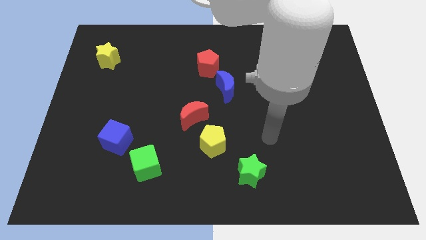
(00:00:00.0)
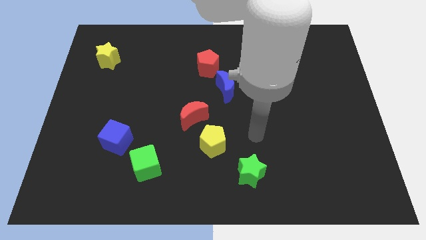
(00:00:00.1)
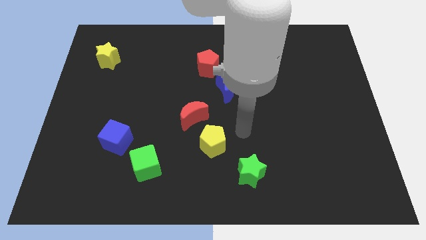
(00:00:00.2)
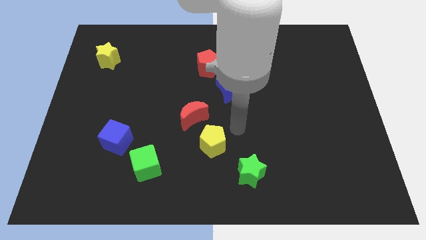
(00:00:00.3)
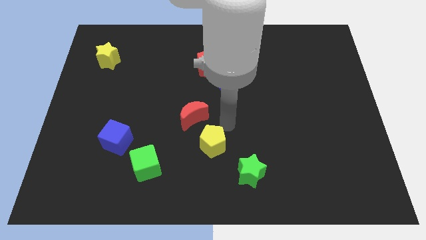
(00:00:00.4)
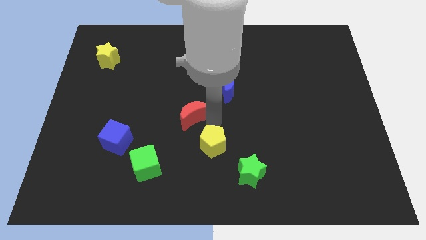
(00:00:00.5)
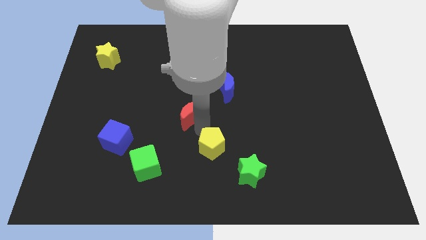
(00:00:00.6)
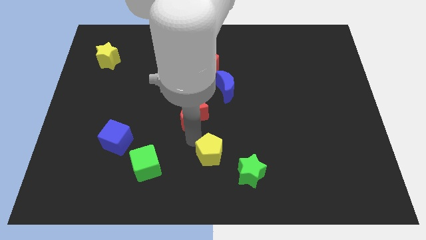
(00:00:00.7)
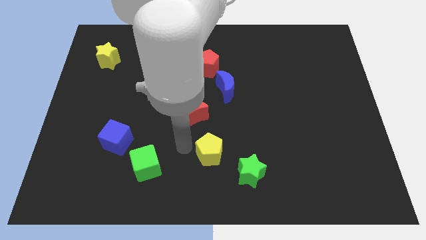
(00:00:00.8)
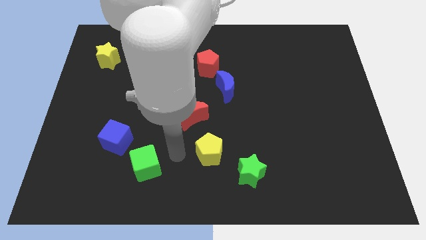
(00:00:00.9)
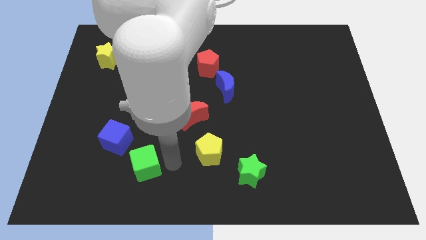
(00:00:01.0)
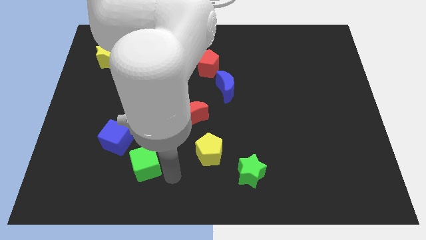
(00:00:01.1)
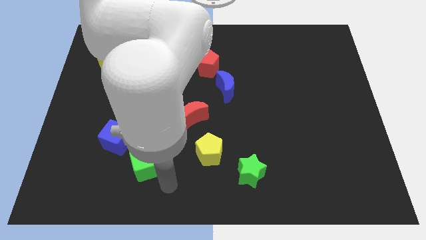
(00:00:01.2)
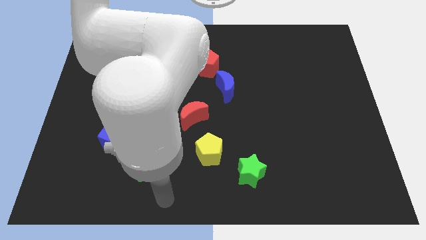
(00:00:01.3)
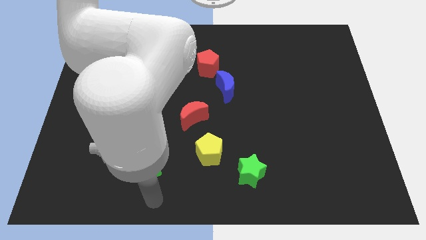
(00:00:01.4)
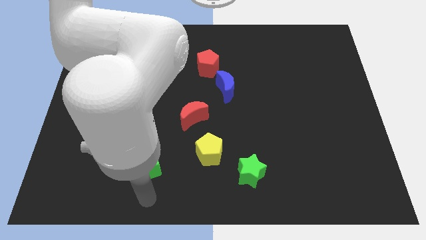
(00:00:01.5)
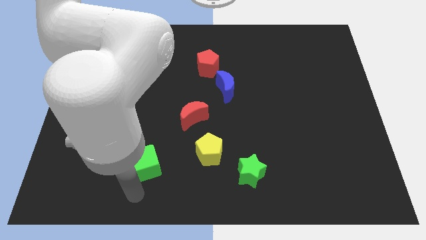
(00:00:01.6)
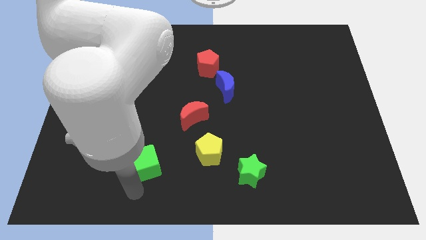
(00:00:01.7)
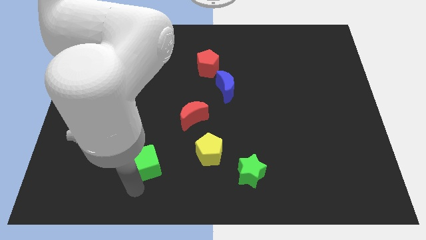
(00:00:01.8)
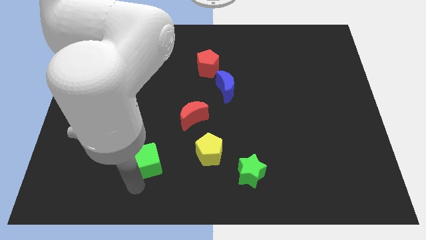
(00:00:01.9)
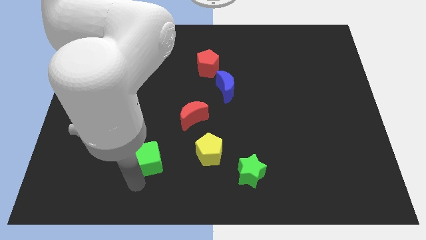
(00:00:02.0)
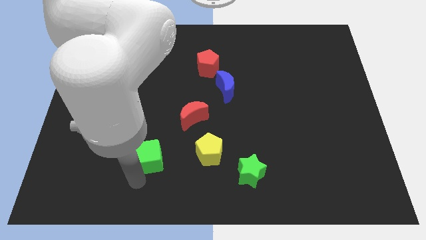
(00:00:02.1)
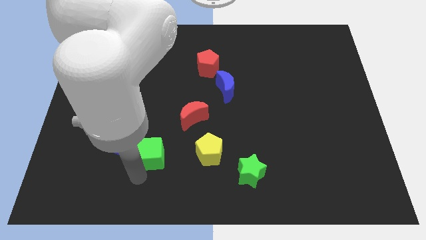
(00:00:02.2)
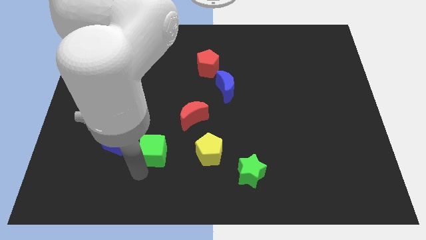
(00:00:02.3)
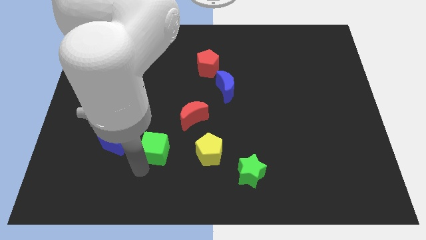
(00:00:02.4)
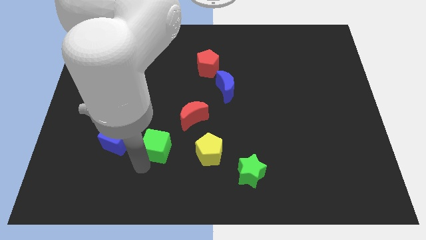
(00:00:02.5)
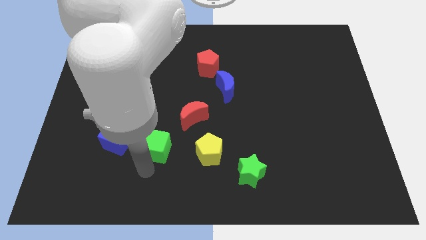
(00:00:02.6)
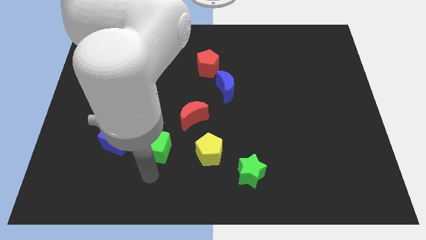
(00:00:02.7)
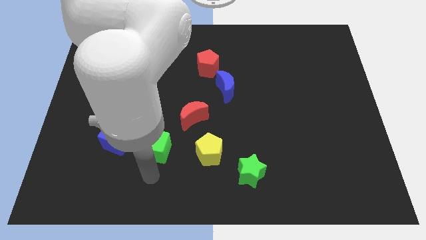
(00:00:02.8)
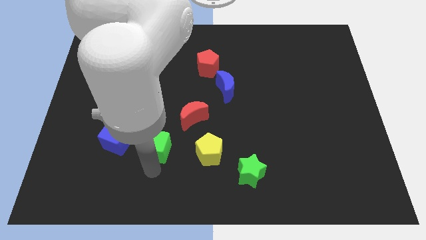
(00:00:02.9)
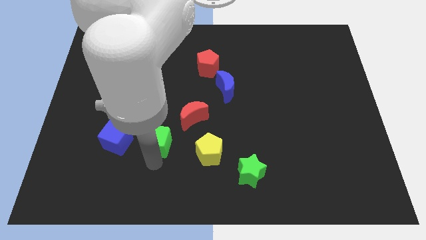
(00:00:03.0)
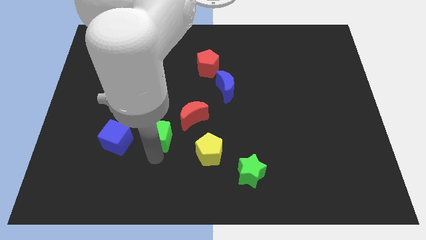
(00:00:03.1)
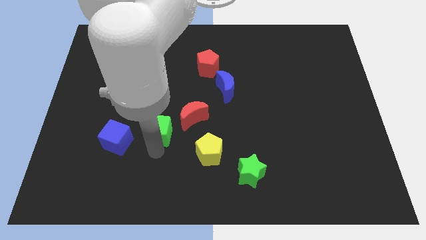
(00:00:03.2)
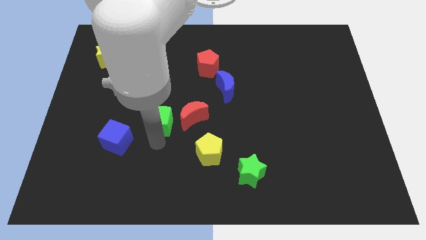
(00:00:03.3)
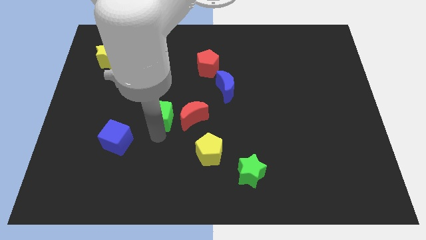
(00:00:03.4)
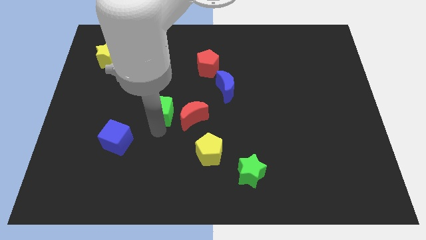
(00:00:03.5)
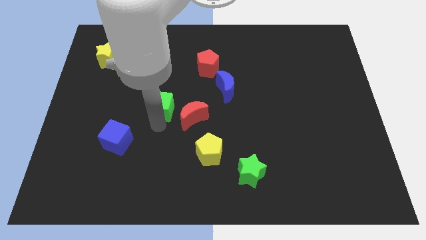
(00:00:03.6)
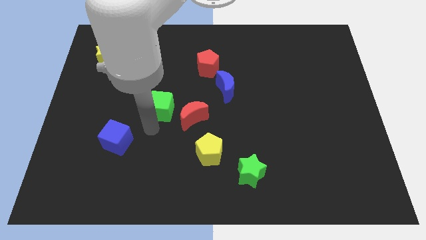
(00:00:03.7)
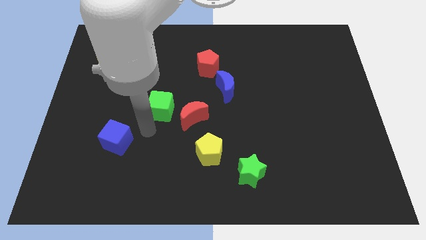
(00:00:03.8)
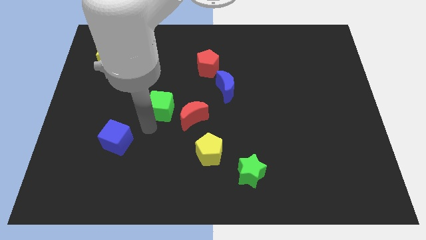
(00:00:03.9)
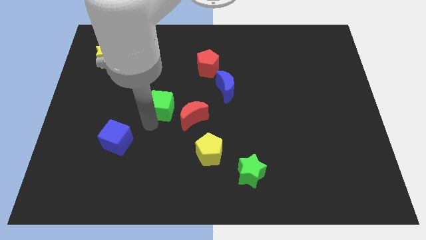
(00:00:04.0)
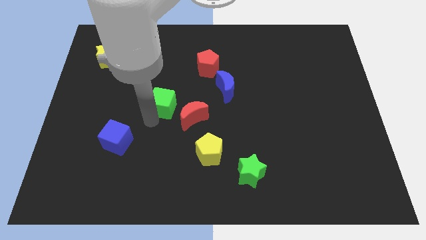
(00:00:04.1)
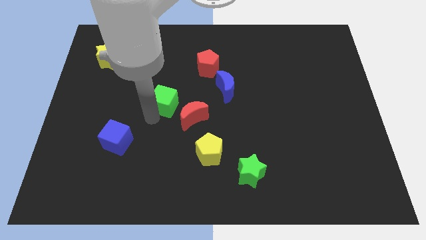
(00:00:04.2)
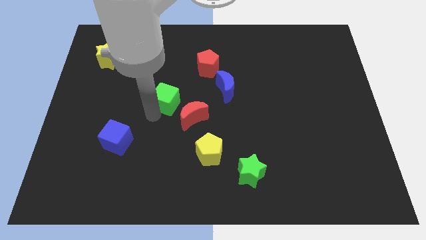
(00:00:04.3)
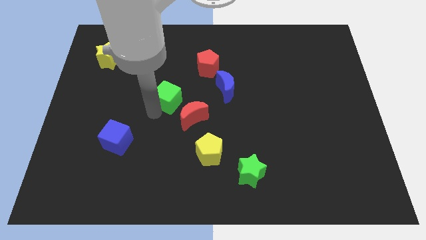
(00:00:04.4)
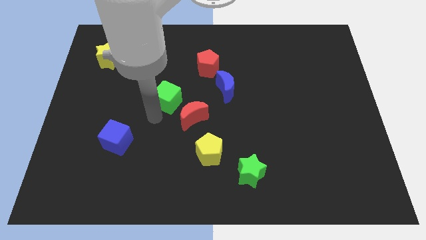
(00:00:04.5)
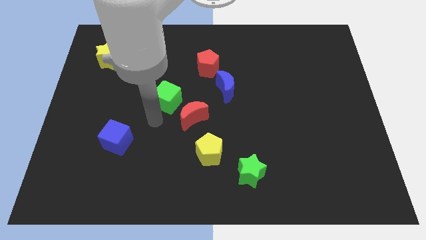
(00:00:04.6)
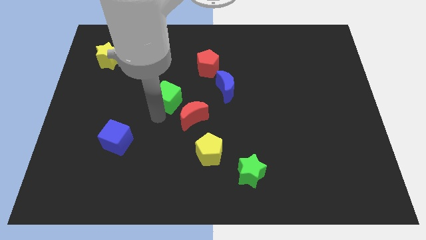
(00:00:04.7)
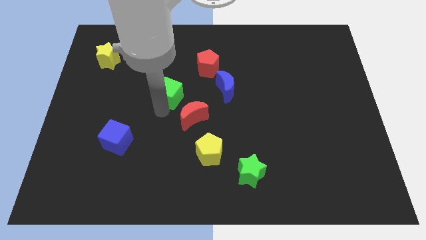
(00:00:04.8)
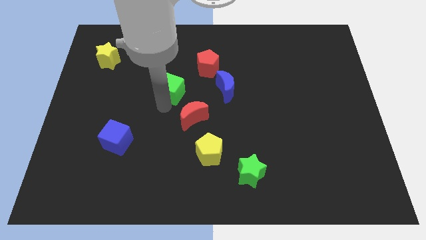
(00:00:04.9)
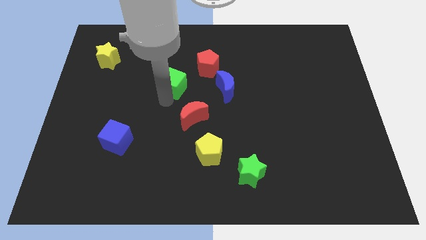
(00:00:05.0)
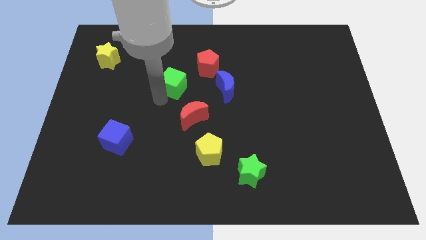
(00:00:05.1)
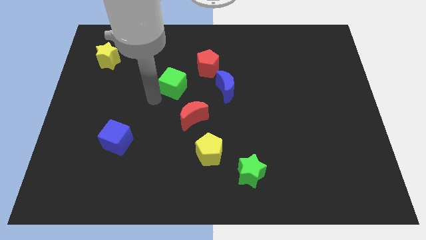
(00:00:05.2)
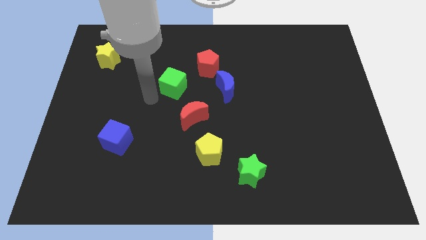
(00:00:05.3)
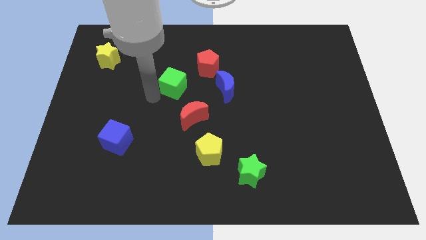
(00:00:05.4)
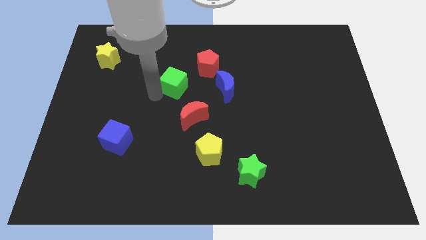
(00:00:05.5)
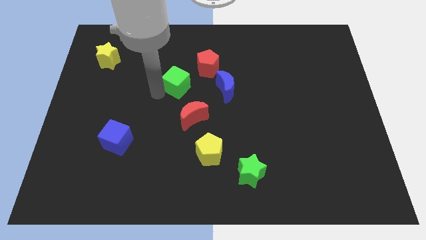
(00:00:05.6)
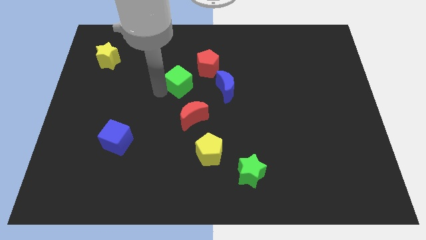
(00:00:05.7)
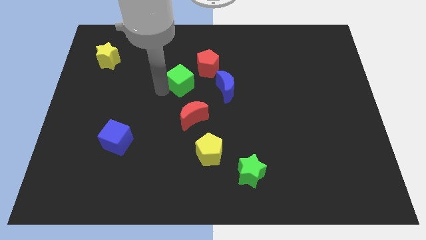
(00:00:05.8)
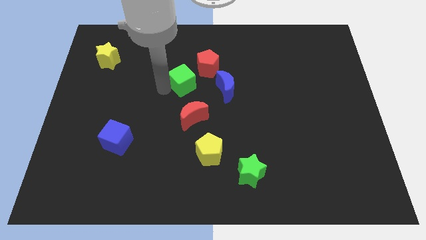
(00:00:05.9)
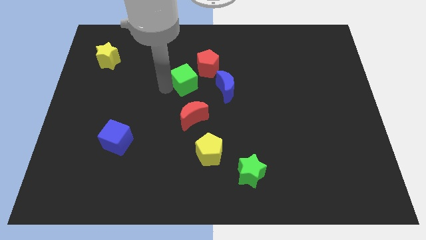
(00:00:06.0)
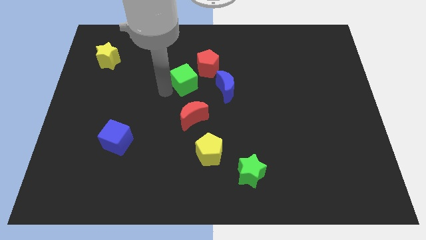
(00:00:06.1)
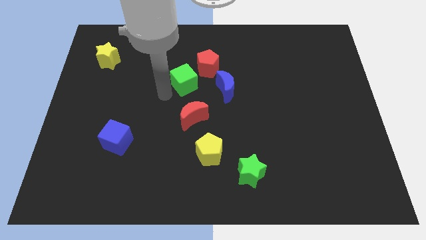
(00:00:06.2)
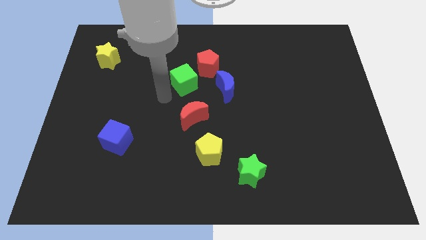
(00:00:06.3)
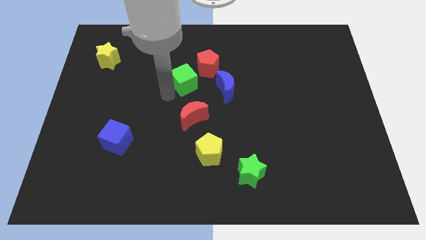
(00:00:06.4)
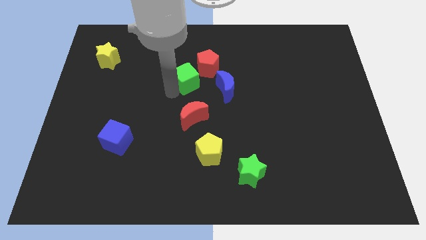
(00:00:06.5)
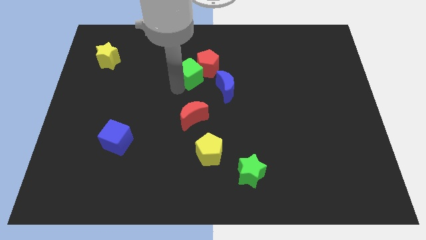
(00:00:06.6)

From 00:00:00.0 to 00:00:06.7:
push the green cube next to the red pentagon
